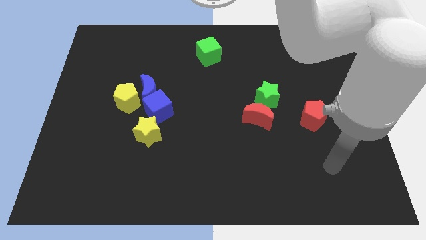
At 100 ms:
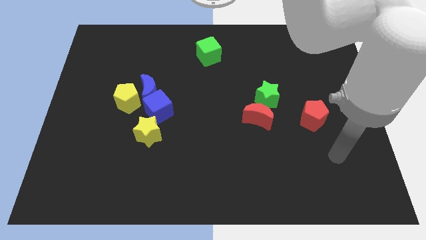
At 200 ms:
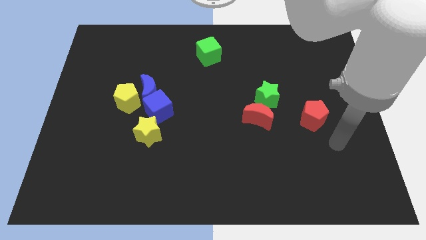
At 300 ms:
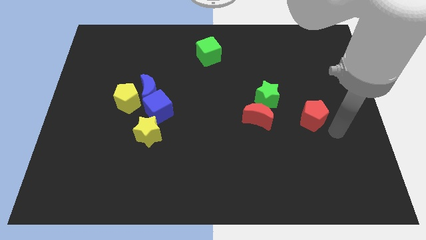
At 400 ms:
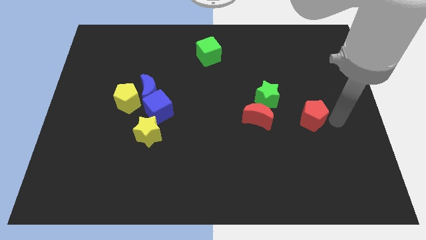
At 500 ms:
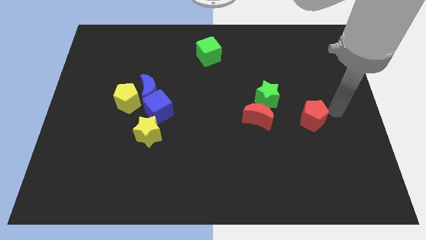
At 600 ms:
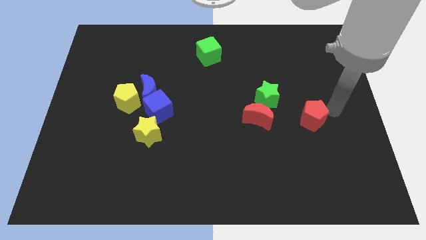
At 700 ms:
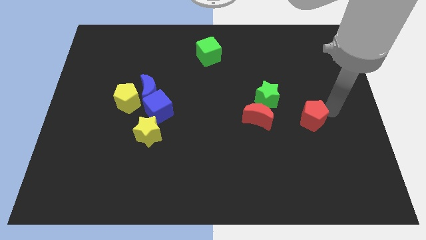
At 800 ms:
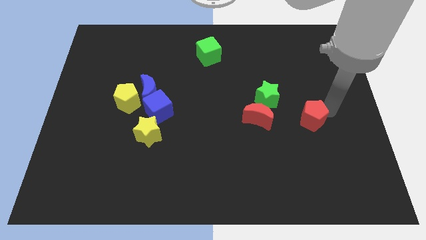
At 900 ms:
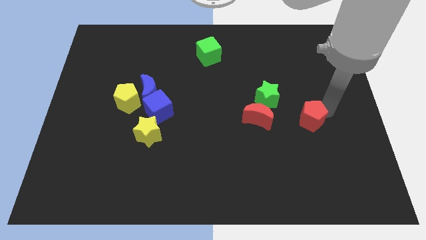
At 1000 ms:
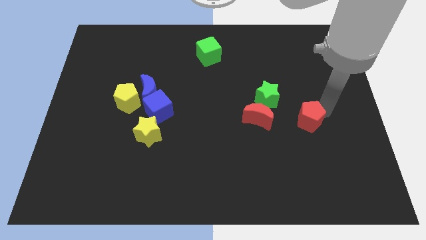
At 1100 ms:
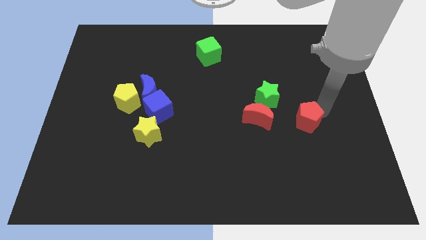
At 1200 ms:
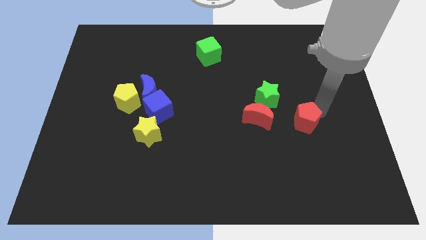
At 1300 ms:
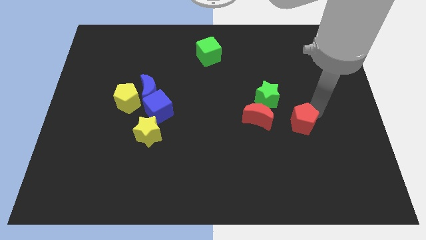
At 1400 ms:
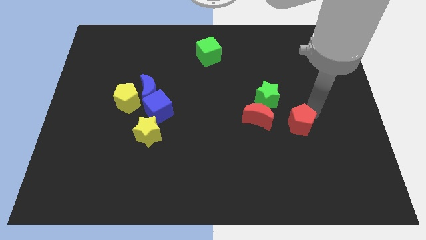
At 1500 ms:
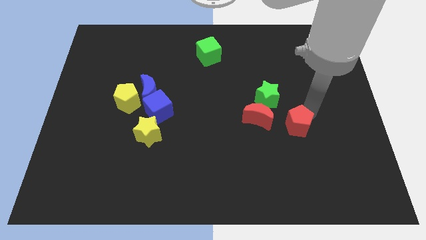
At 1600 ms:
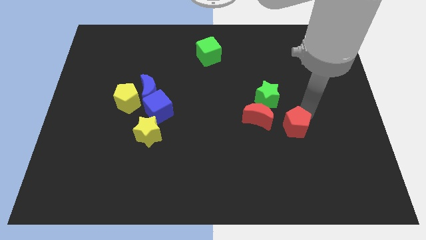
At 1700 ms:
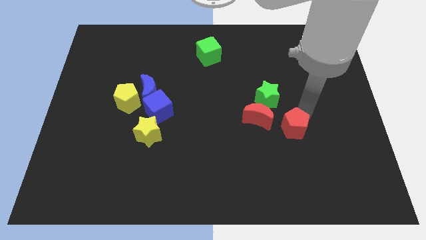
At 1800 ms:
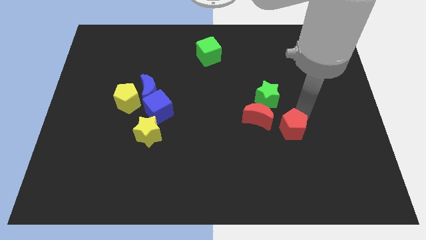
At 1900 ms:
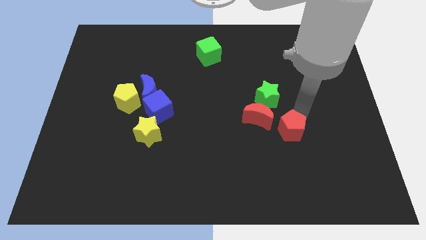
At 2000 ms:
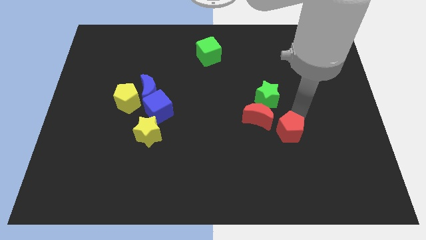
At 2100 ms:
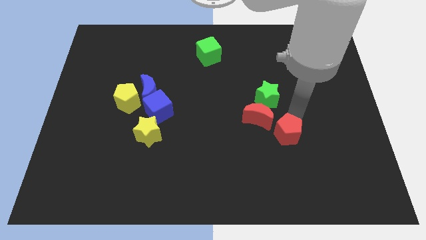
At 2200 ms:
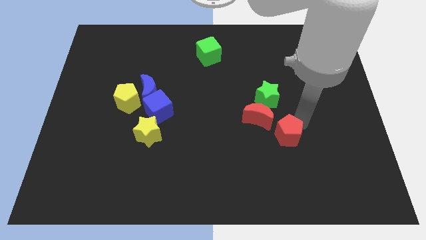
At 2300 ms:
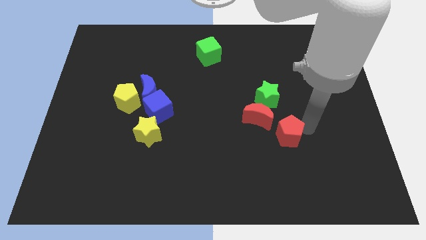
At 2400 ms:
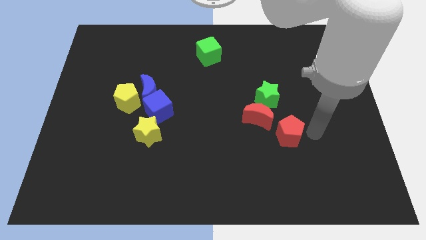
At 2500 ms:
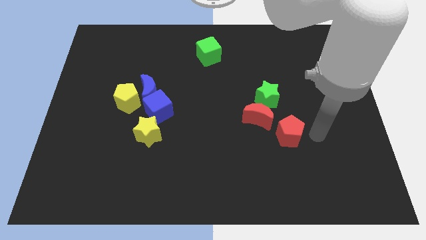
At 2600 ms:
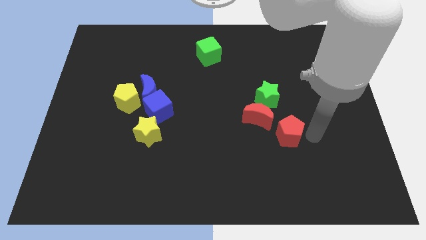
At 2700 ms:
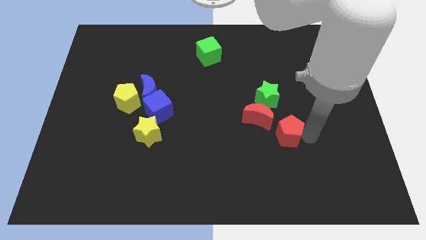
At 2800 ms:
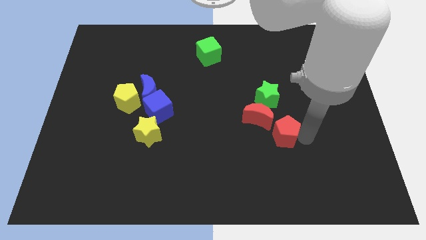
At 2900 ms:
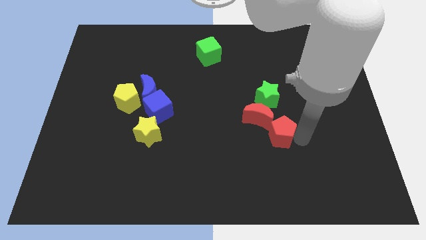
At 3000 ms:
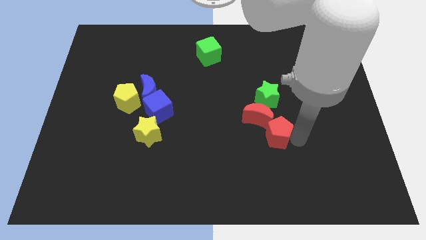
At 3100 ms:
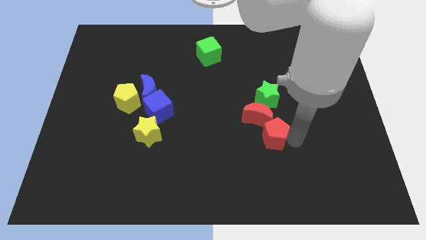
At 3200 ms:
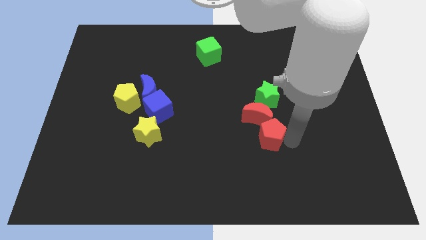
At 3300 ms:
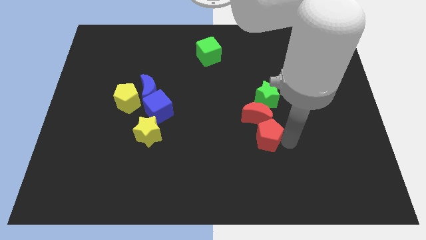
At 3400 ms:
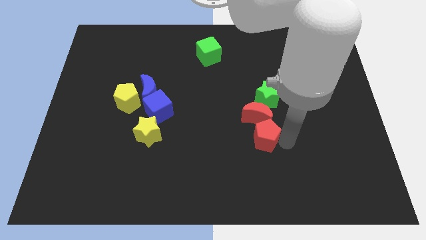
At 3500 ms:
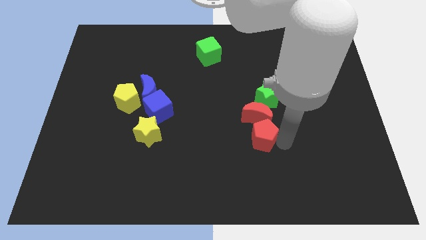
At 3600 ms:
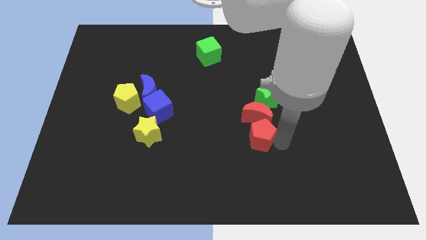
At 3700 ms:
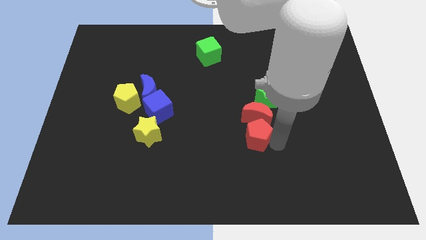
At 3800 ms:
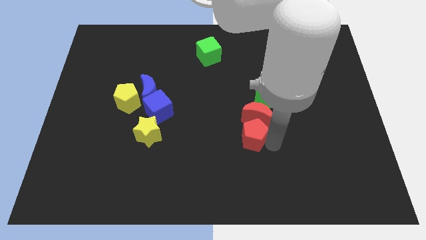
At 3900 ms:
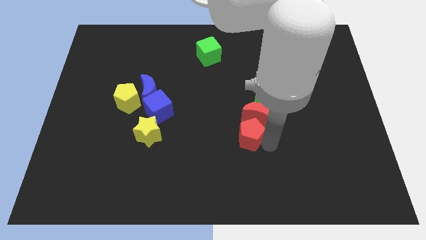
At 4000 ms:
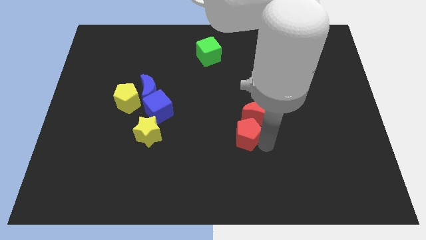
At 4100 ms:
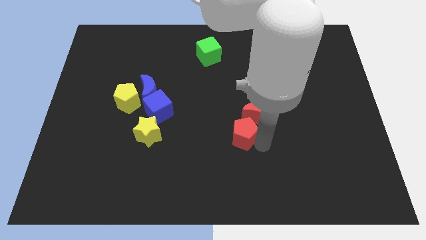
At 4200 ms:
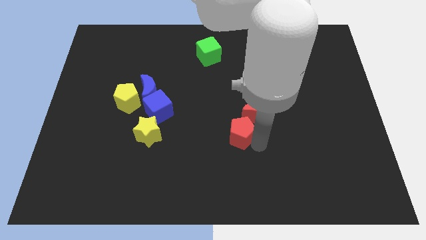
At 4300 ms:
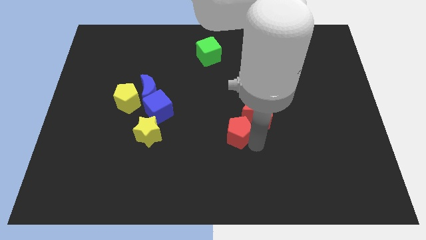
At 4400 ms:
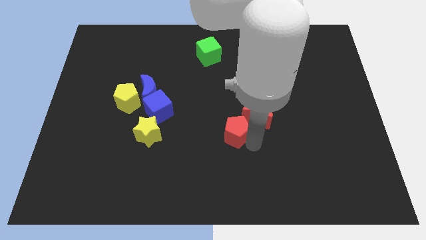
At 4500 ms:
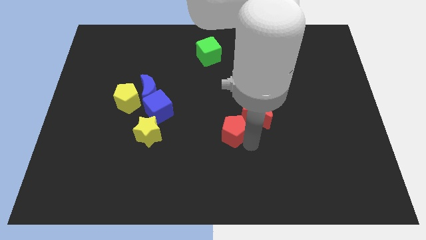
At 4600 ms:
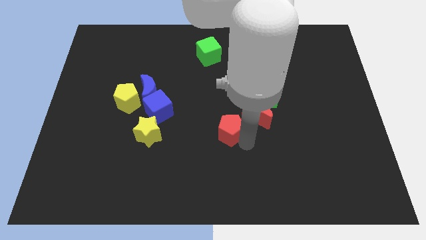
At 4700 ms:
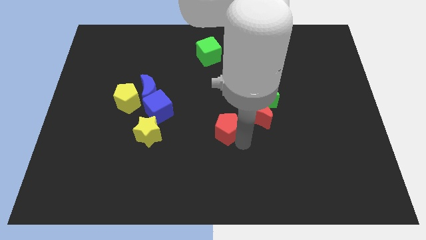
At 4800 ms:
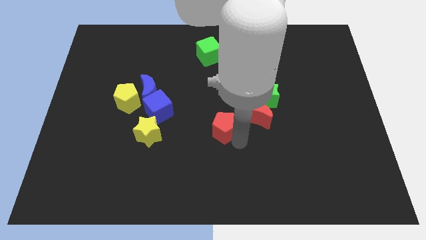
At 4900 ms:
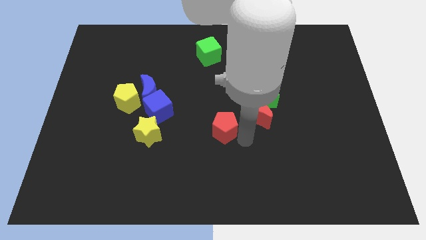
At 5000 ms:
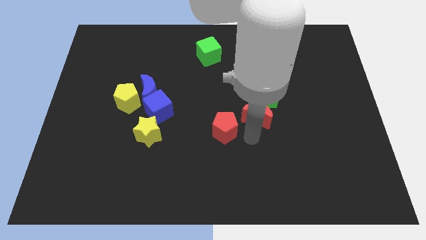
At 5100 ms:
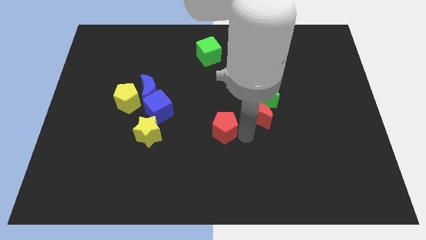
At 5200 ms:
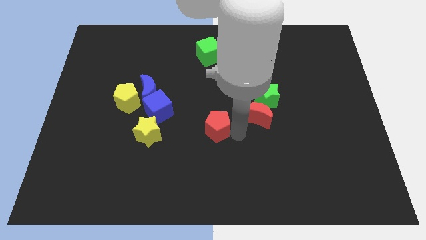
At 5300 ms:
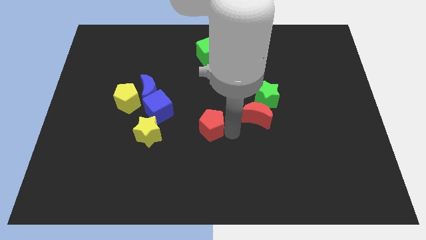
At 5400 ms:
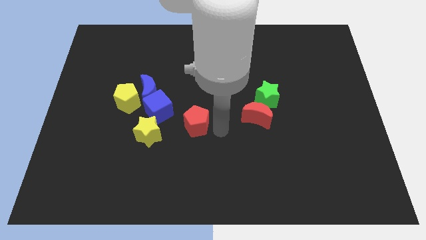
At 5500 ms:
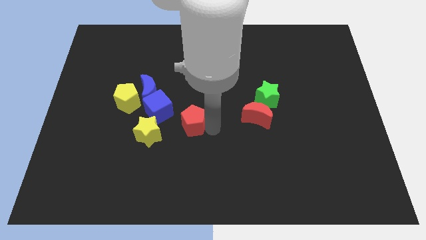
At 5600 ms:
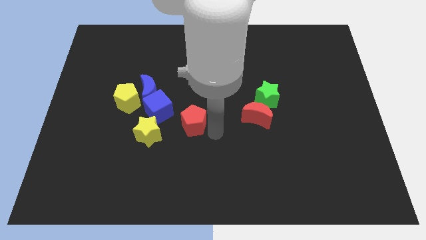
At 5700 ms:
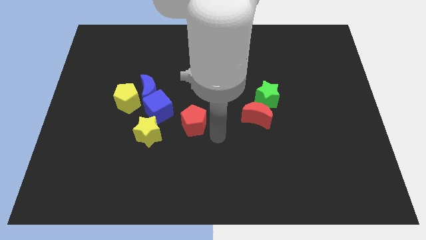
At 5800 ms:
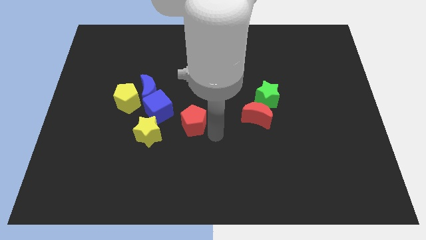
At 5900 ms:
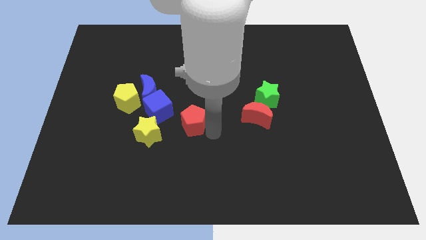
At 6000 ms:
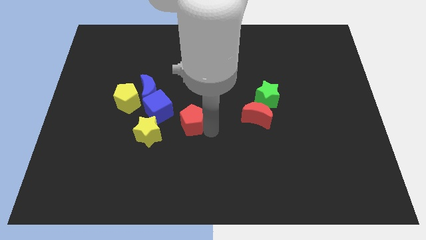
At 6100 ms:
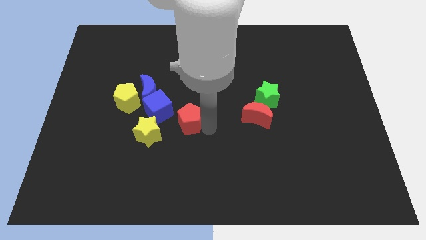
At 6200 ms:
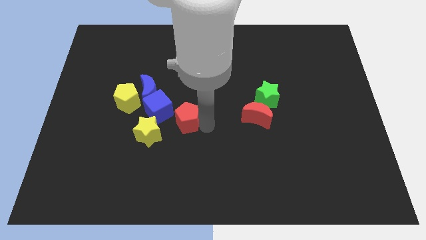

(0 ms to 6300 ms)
slide the red pentagon diagonally down and to the right of the blue moon
